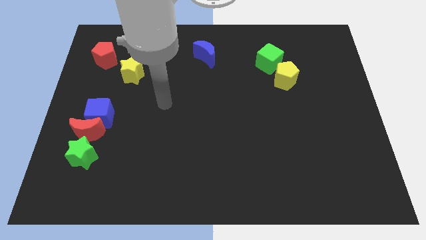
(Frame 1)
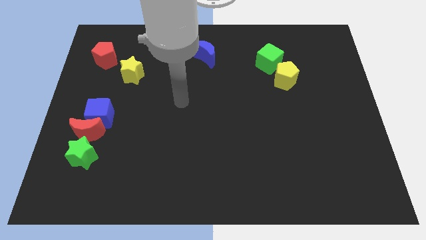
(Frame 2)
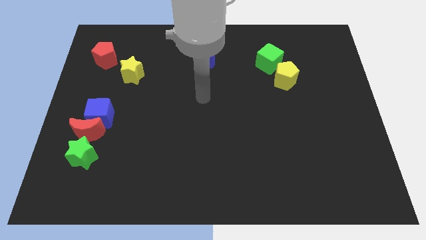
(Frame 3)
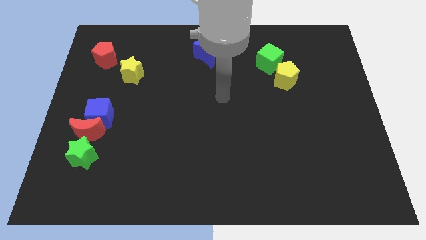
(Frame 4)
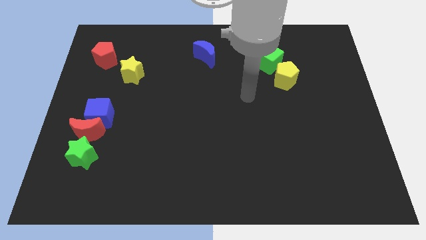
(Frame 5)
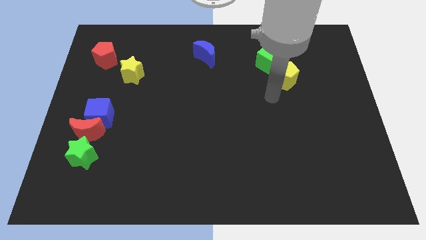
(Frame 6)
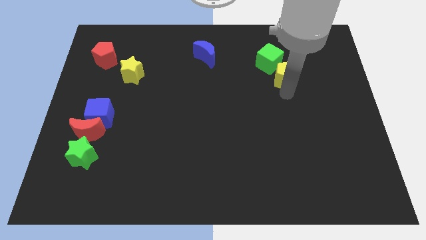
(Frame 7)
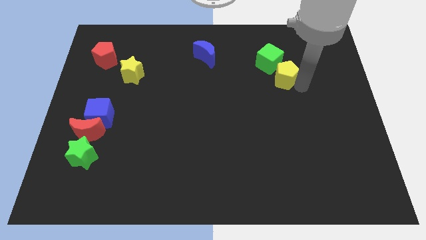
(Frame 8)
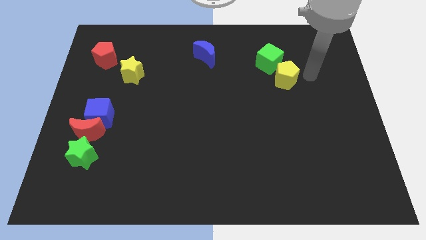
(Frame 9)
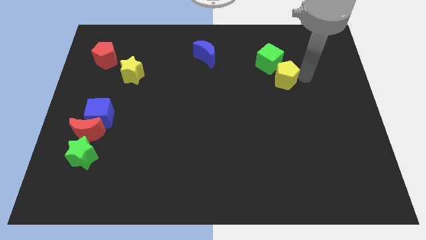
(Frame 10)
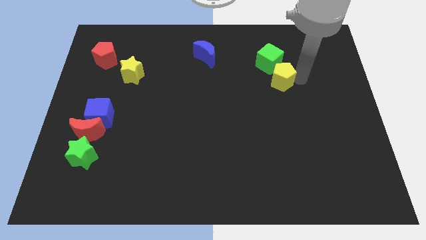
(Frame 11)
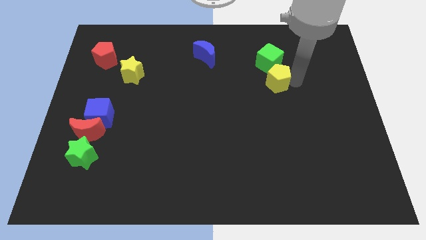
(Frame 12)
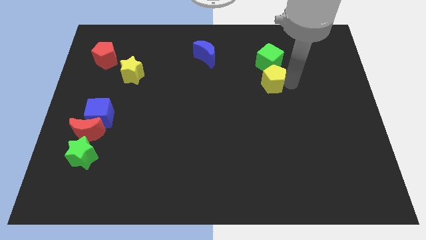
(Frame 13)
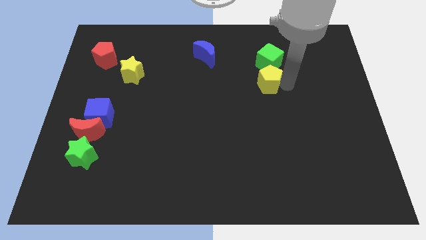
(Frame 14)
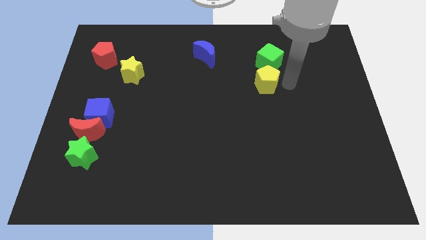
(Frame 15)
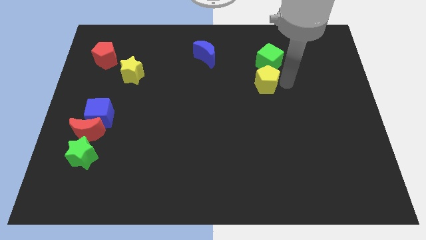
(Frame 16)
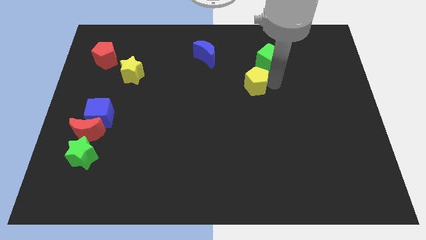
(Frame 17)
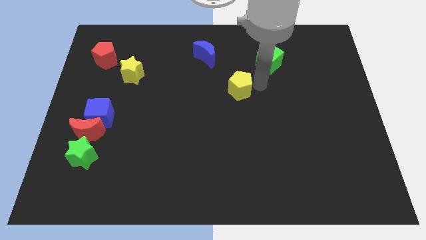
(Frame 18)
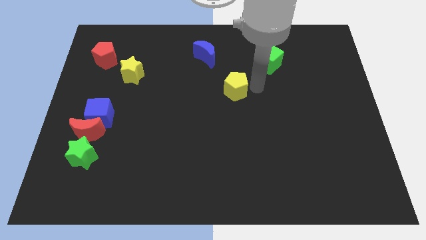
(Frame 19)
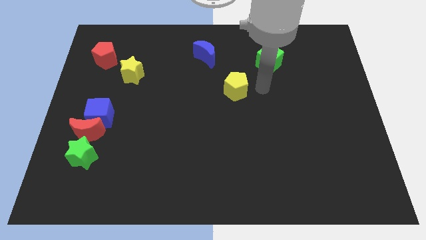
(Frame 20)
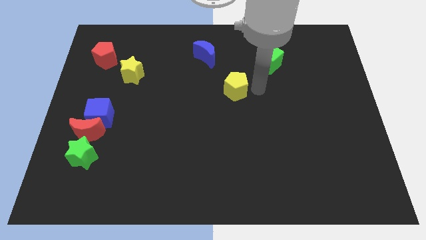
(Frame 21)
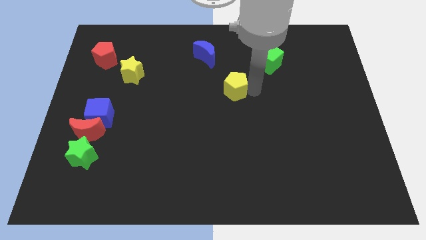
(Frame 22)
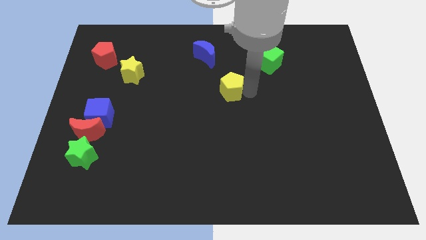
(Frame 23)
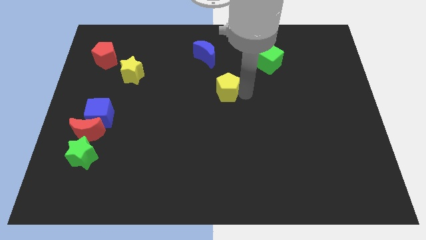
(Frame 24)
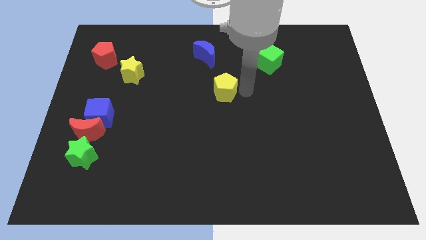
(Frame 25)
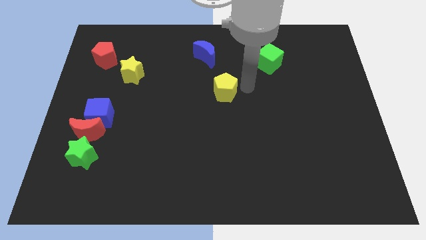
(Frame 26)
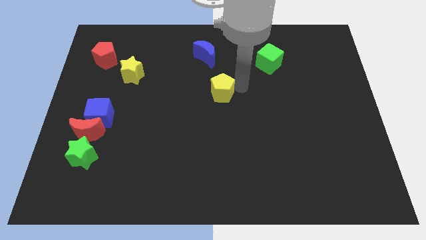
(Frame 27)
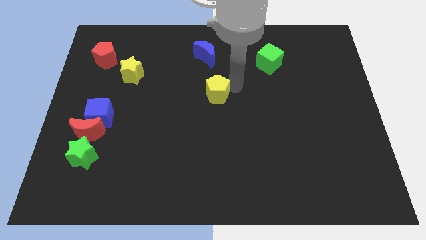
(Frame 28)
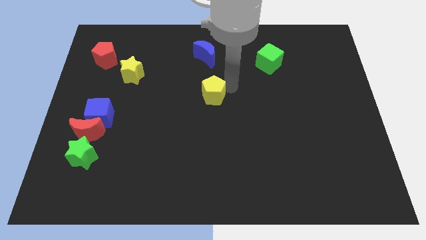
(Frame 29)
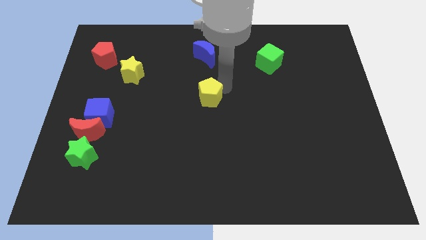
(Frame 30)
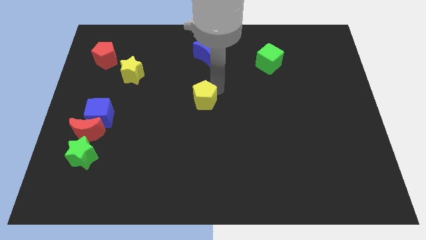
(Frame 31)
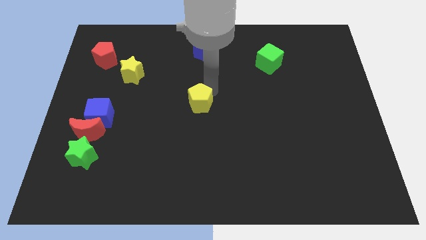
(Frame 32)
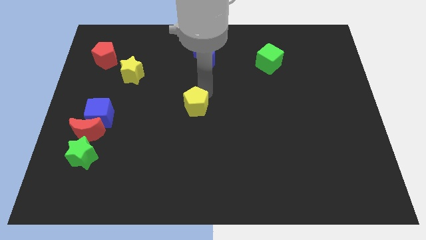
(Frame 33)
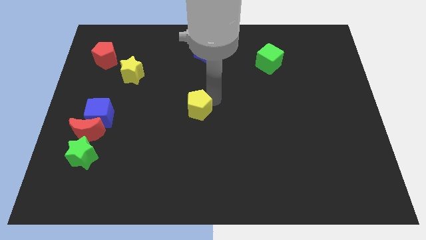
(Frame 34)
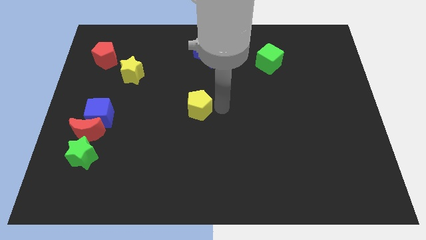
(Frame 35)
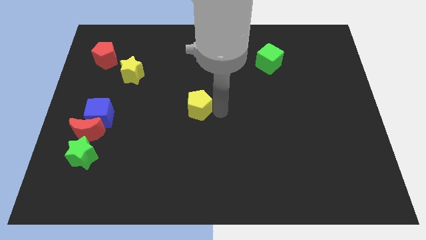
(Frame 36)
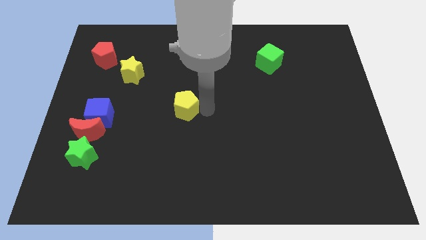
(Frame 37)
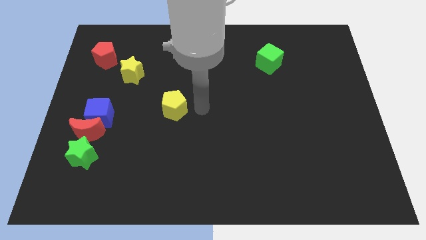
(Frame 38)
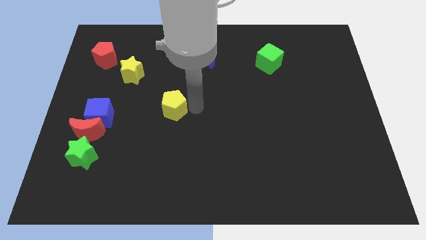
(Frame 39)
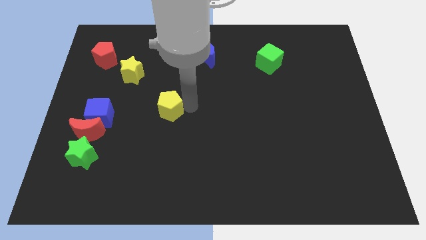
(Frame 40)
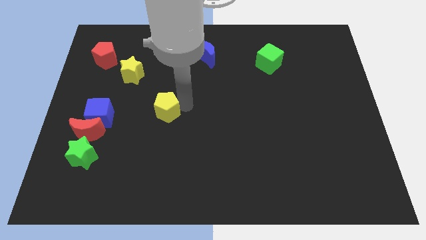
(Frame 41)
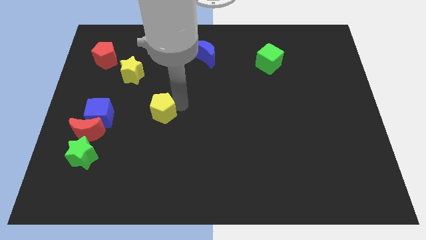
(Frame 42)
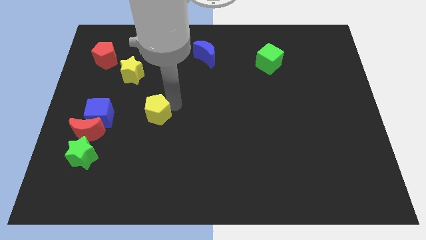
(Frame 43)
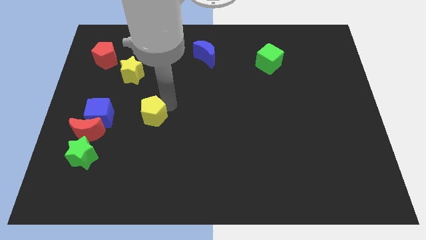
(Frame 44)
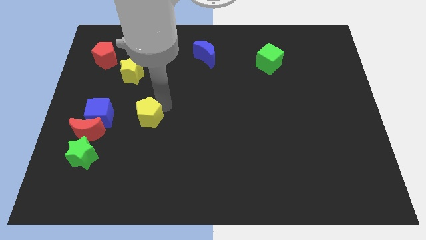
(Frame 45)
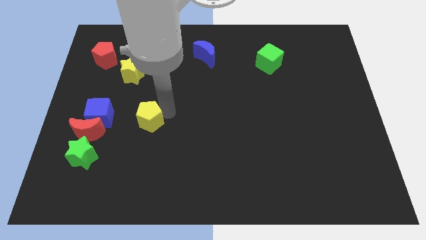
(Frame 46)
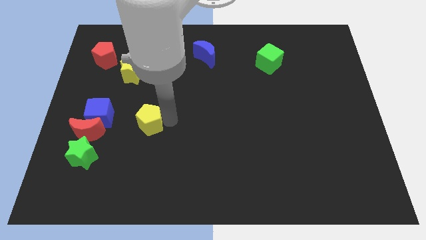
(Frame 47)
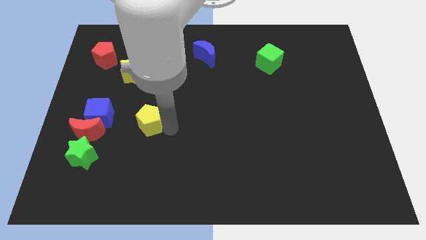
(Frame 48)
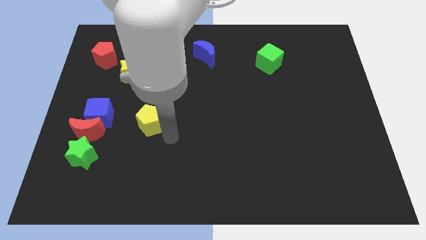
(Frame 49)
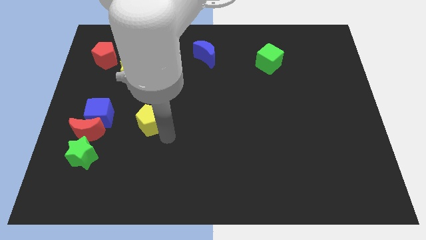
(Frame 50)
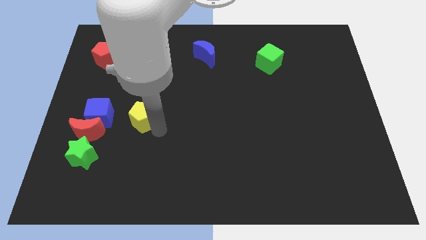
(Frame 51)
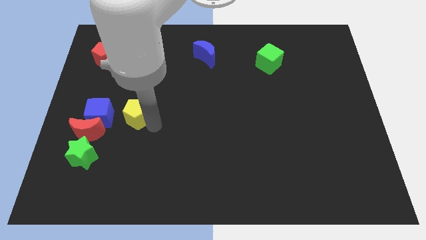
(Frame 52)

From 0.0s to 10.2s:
push the yellow pentagon to the top right of the red moon

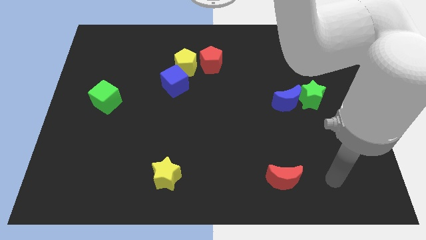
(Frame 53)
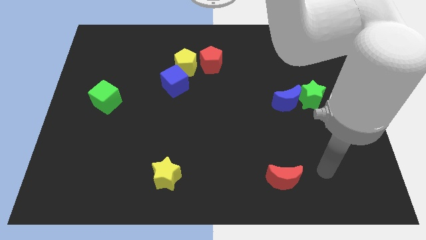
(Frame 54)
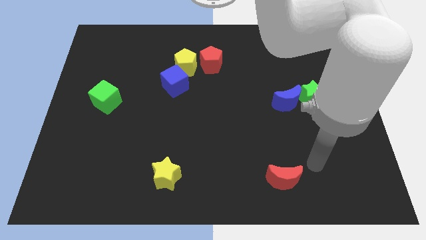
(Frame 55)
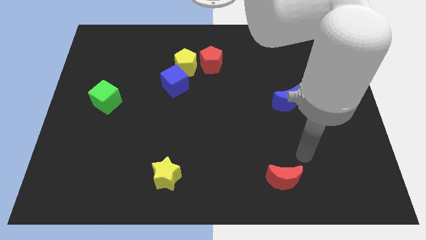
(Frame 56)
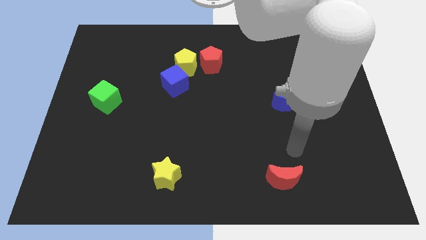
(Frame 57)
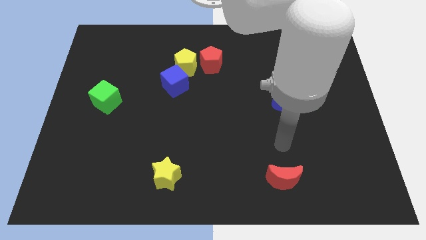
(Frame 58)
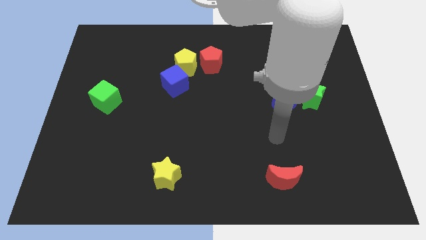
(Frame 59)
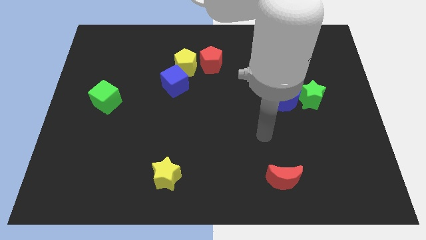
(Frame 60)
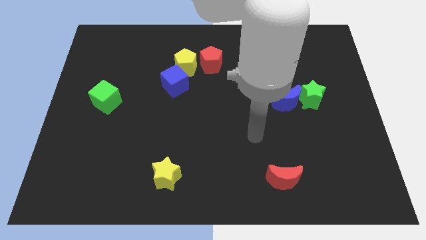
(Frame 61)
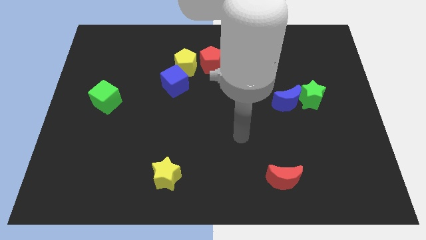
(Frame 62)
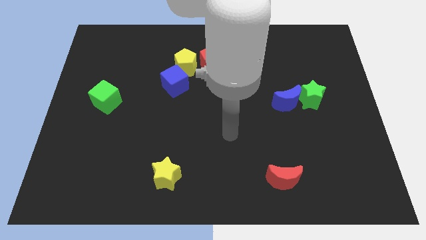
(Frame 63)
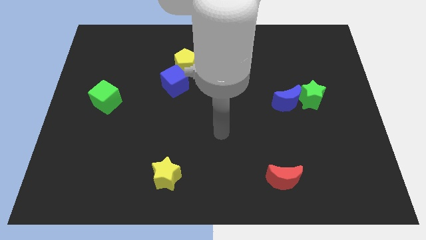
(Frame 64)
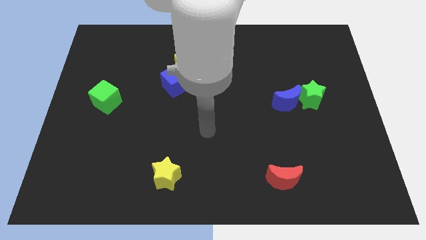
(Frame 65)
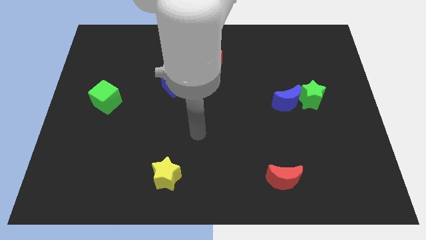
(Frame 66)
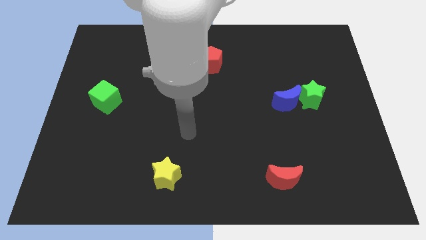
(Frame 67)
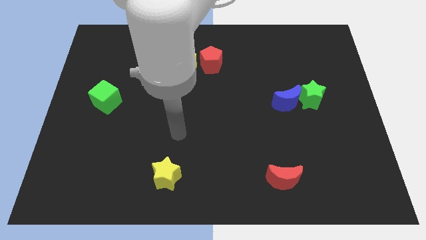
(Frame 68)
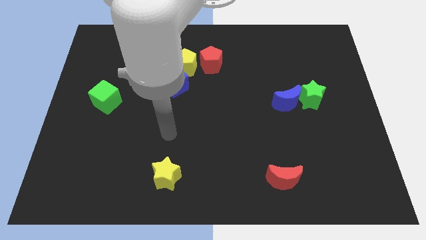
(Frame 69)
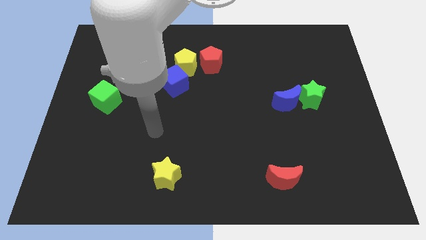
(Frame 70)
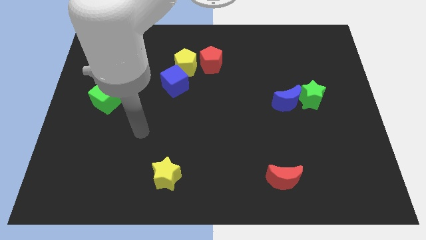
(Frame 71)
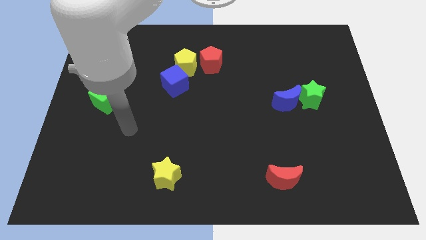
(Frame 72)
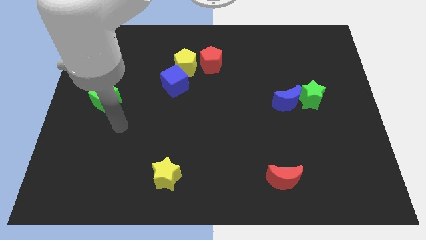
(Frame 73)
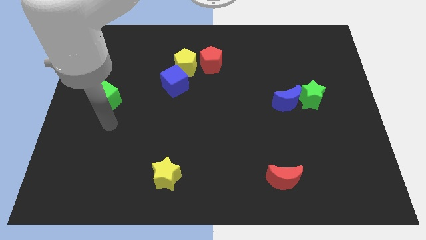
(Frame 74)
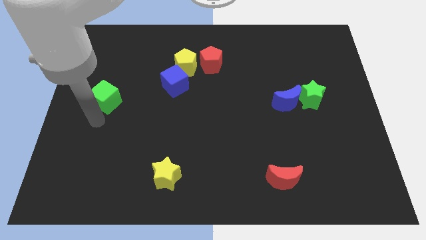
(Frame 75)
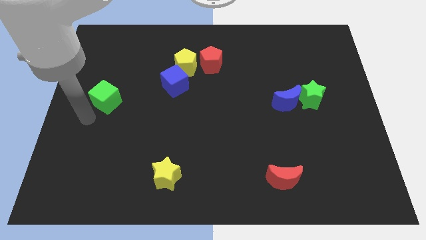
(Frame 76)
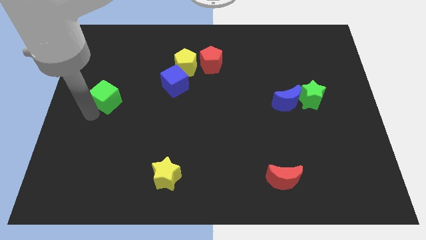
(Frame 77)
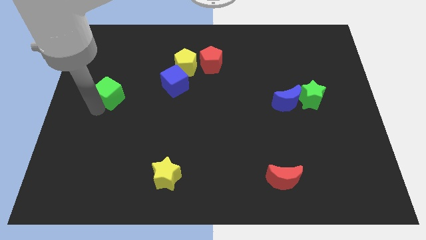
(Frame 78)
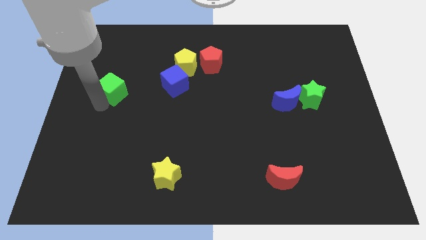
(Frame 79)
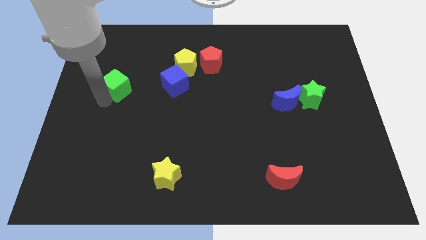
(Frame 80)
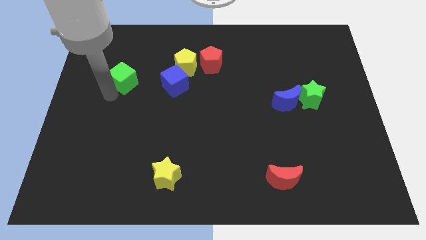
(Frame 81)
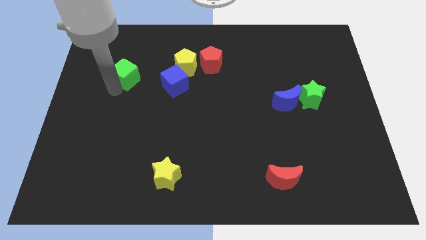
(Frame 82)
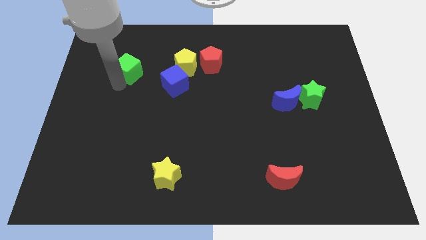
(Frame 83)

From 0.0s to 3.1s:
move the green cube left of the yellow pentagon
